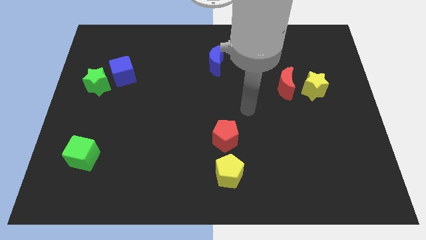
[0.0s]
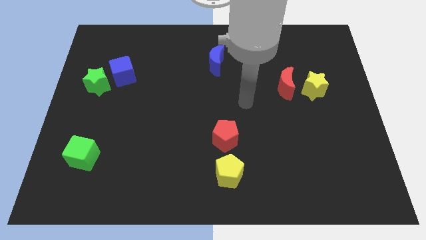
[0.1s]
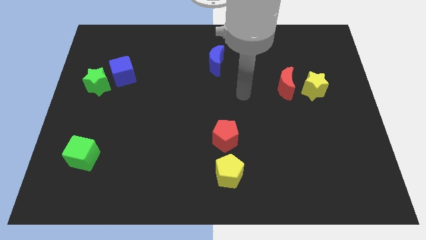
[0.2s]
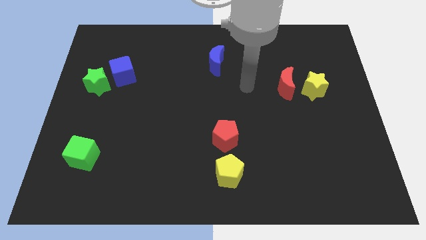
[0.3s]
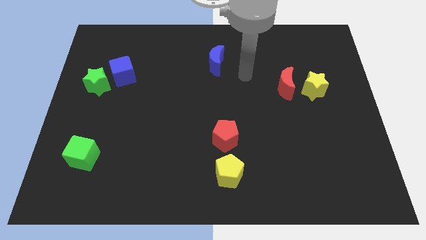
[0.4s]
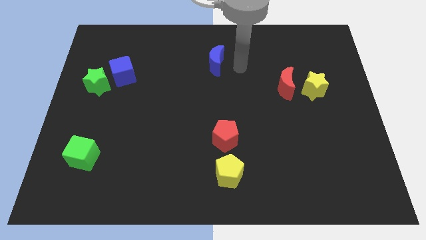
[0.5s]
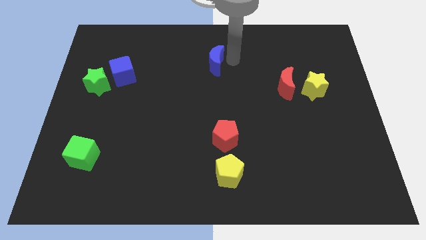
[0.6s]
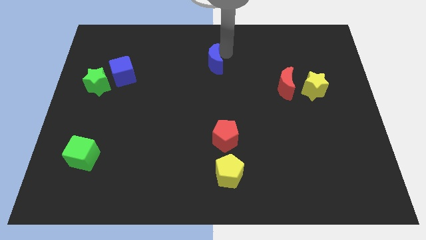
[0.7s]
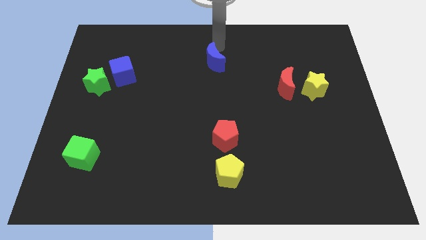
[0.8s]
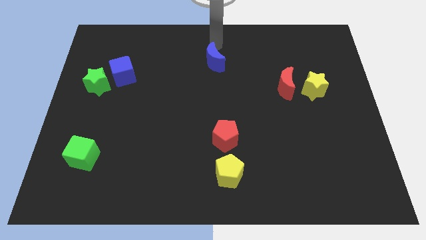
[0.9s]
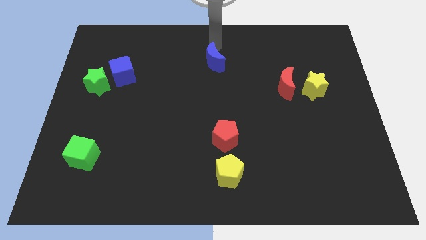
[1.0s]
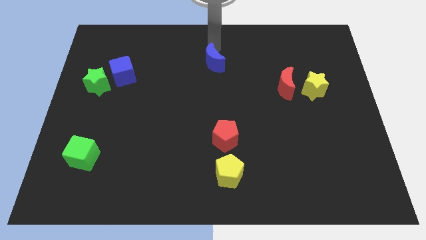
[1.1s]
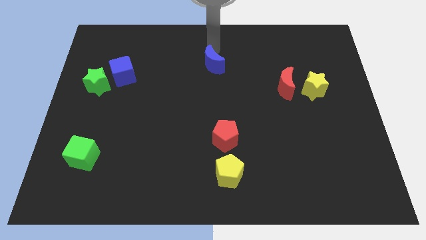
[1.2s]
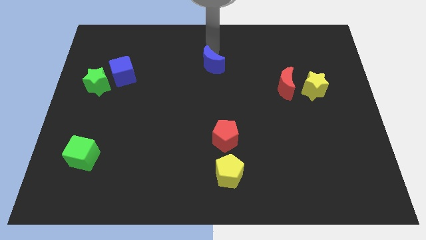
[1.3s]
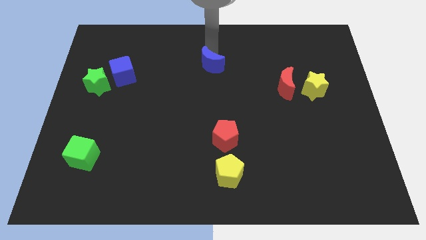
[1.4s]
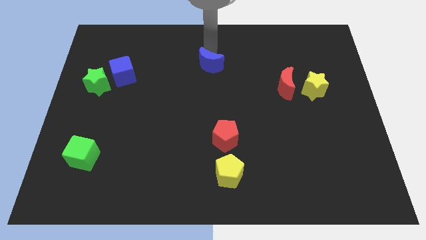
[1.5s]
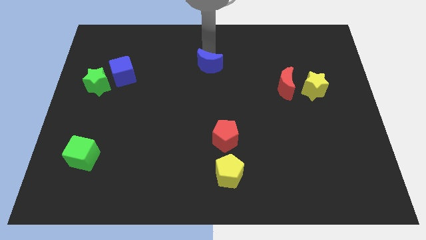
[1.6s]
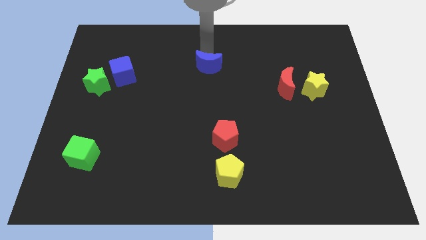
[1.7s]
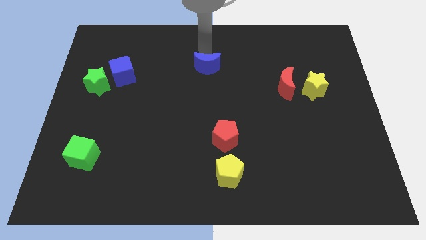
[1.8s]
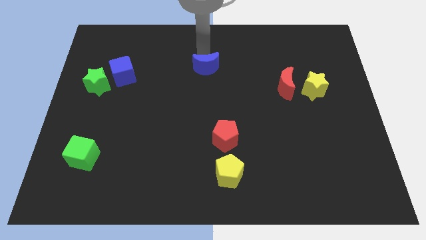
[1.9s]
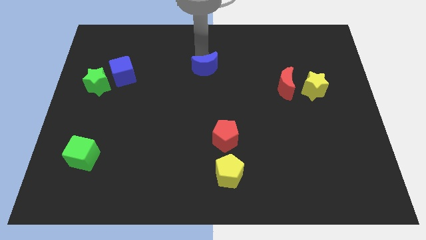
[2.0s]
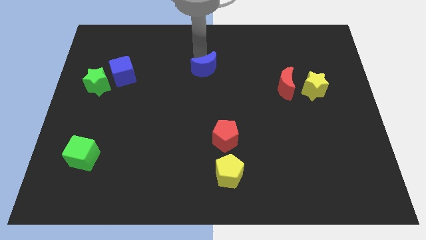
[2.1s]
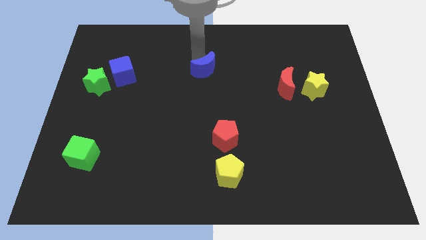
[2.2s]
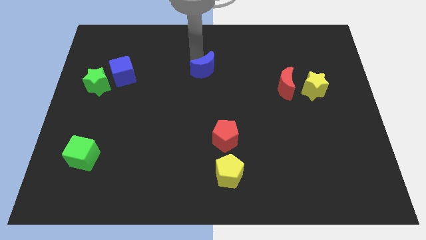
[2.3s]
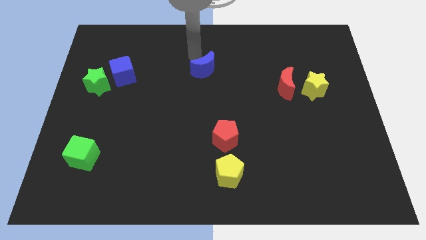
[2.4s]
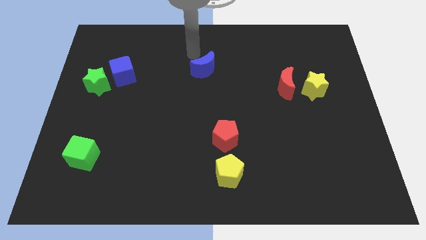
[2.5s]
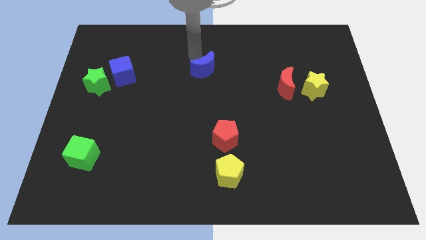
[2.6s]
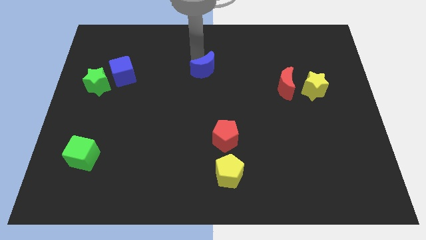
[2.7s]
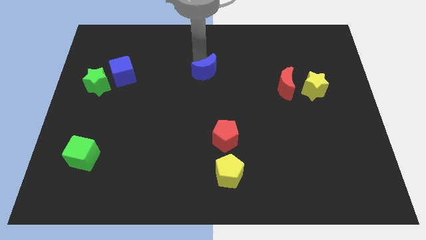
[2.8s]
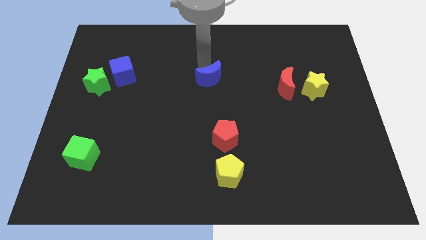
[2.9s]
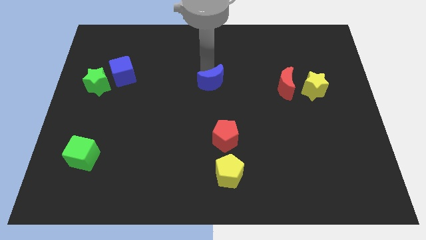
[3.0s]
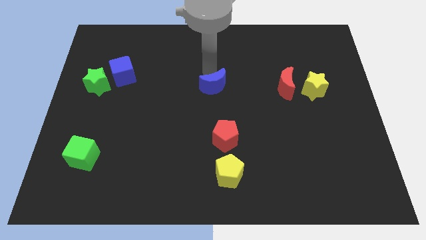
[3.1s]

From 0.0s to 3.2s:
slide the blue moon downwards a little

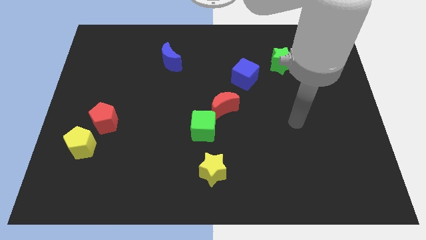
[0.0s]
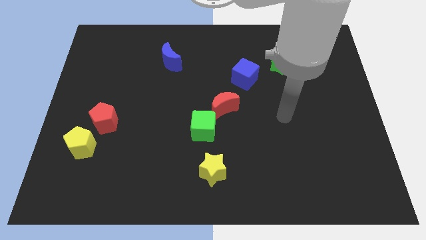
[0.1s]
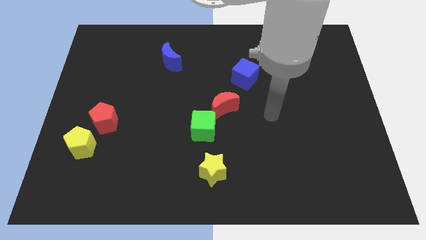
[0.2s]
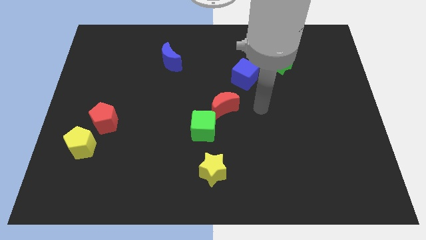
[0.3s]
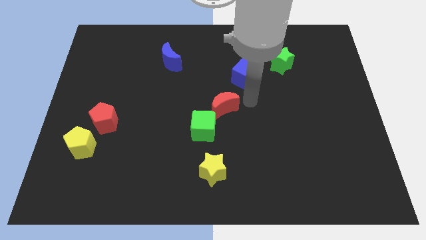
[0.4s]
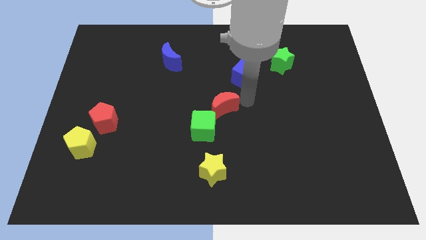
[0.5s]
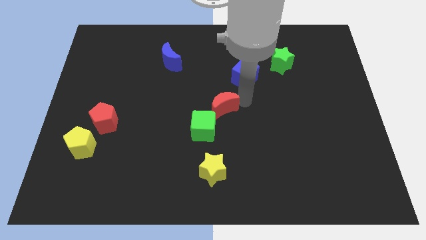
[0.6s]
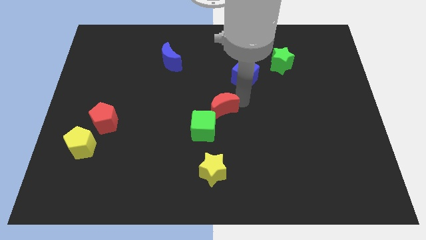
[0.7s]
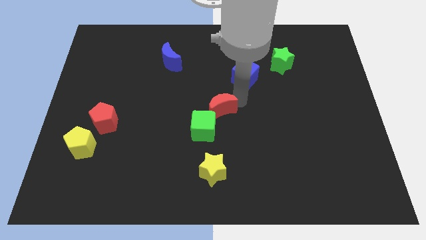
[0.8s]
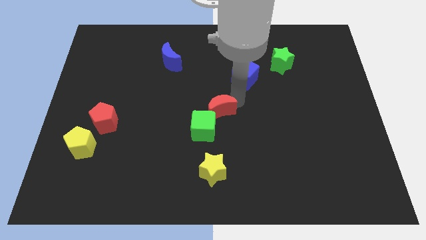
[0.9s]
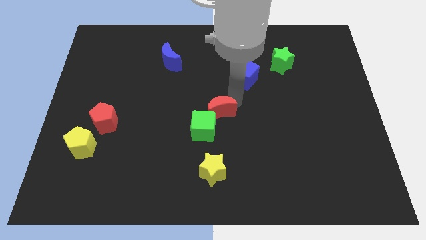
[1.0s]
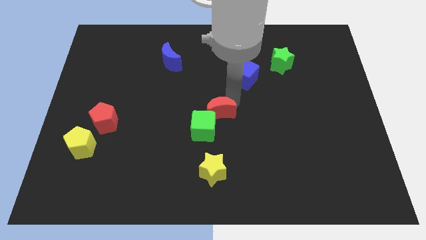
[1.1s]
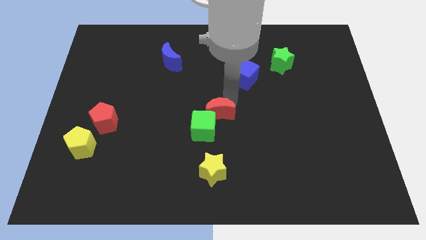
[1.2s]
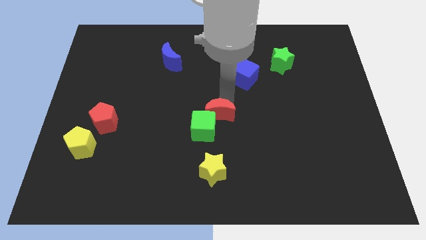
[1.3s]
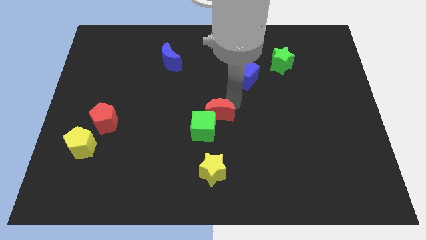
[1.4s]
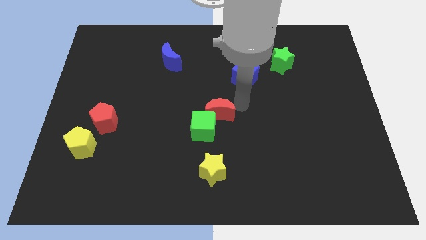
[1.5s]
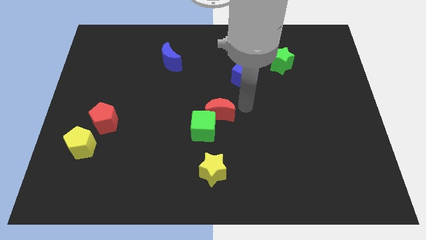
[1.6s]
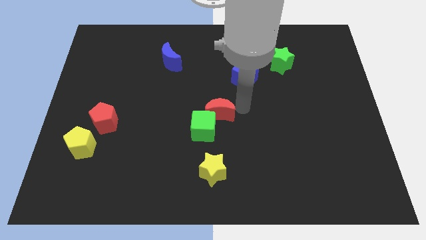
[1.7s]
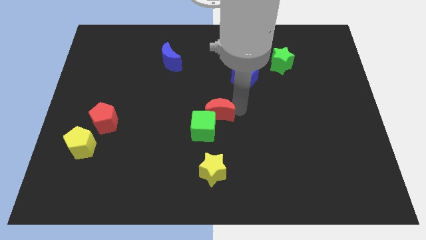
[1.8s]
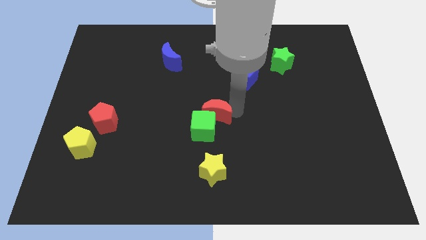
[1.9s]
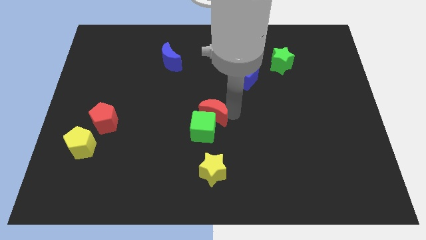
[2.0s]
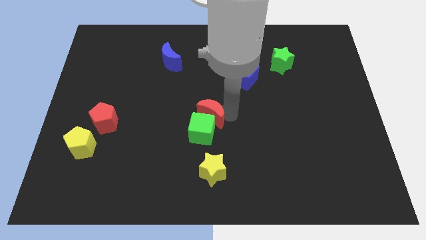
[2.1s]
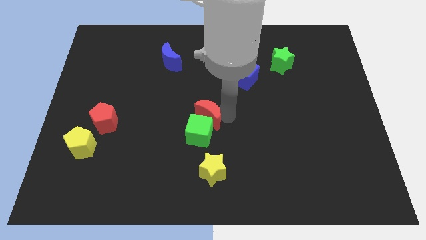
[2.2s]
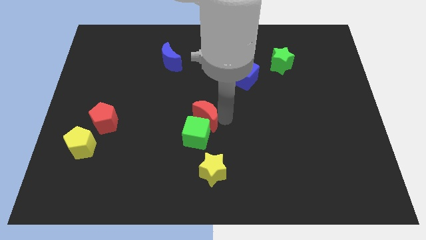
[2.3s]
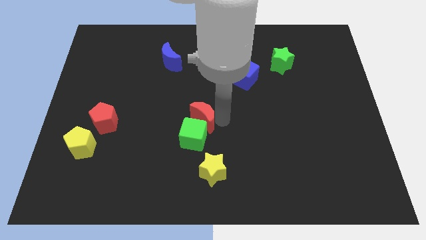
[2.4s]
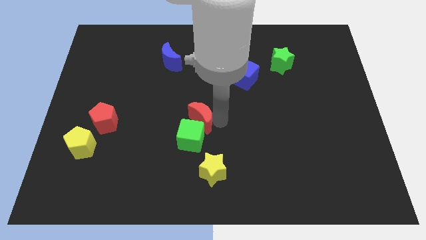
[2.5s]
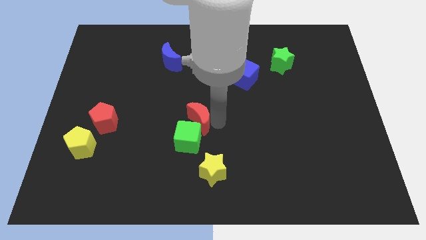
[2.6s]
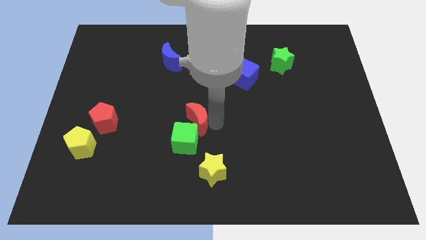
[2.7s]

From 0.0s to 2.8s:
slightly push the red moon downwards and then to the left

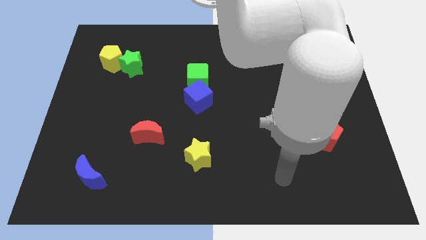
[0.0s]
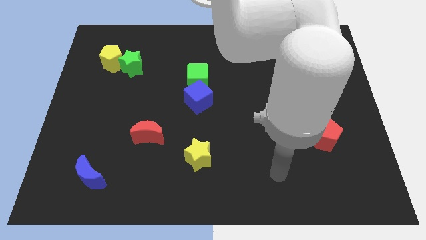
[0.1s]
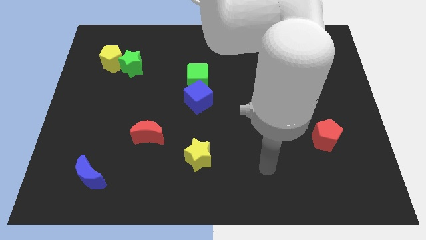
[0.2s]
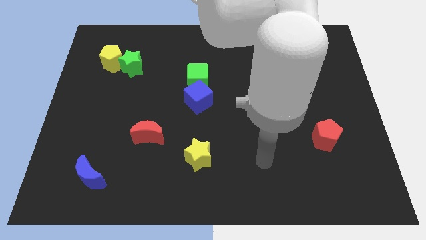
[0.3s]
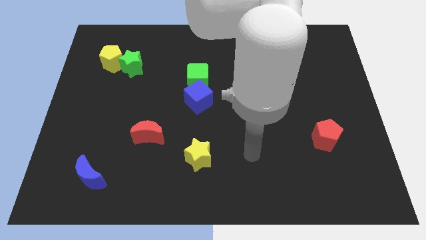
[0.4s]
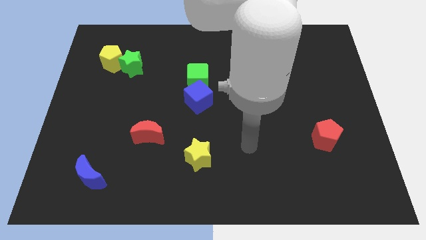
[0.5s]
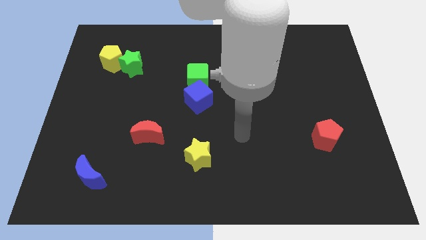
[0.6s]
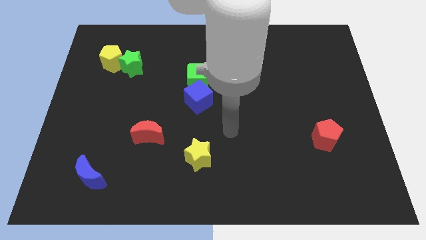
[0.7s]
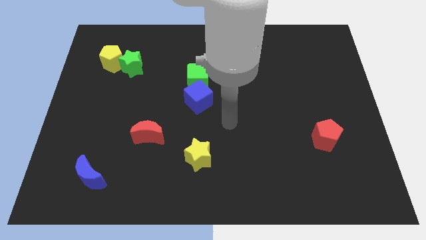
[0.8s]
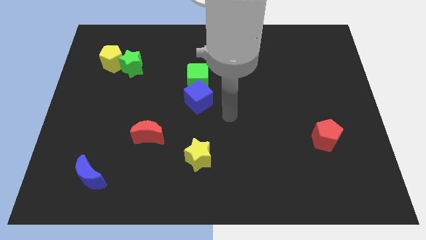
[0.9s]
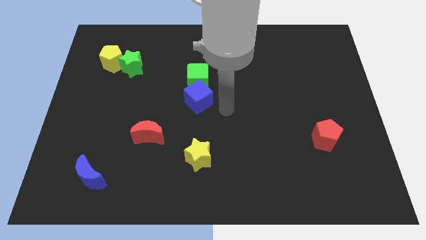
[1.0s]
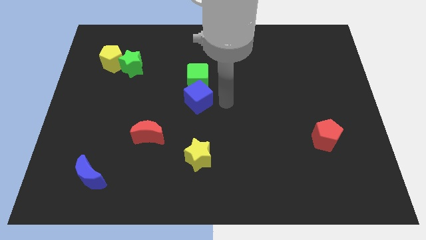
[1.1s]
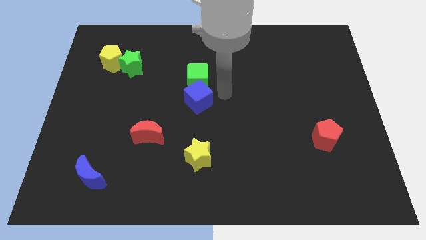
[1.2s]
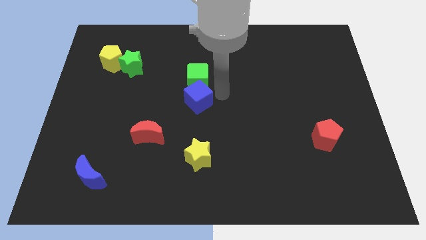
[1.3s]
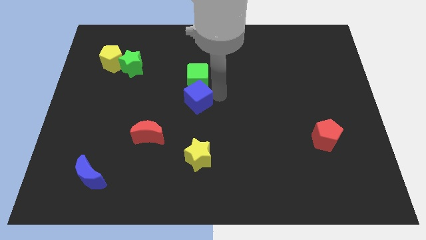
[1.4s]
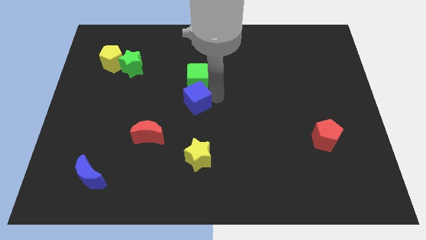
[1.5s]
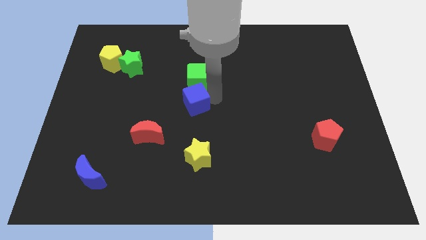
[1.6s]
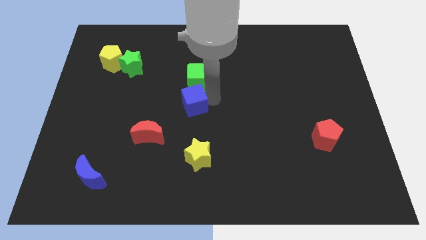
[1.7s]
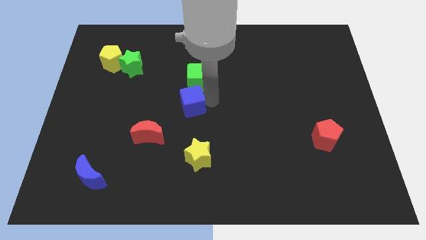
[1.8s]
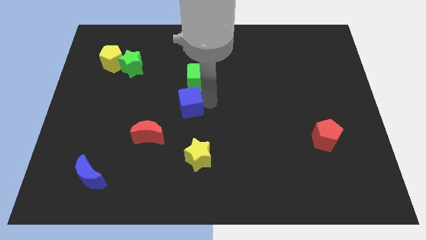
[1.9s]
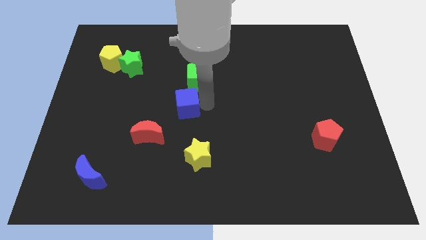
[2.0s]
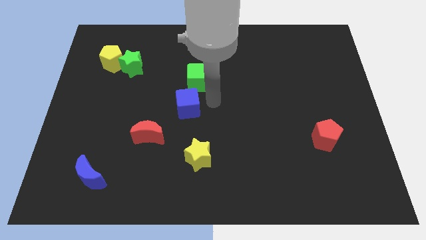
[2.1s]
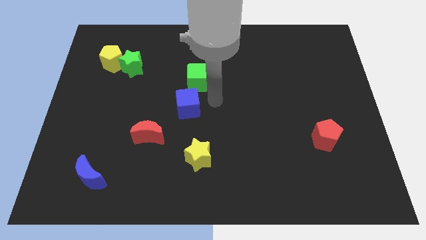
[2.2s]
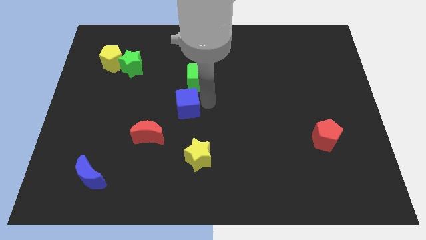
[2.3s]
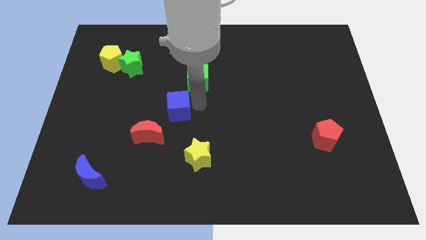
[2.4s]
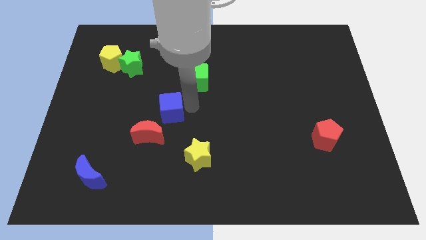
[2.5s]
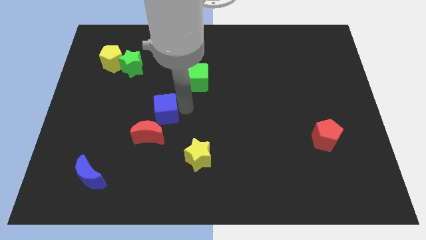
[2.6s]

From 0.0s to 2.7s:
slightly slide the blue cube down and to the left diagonally
